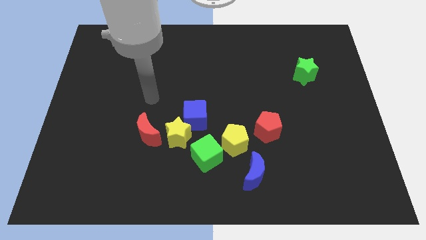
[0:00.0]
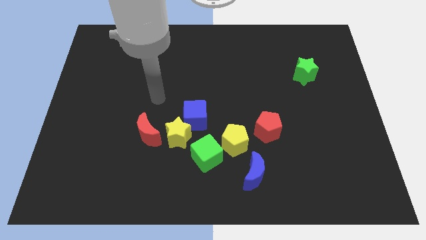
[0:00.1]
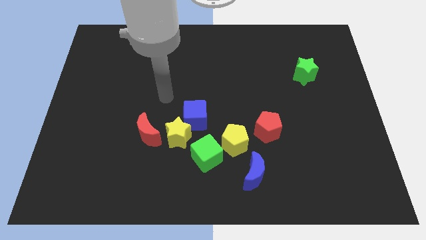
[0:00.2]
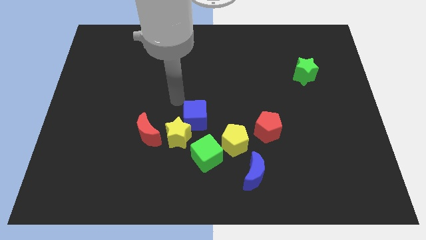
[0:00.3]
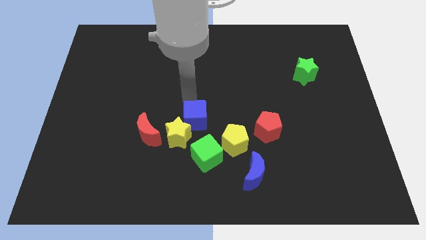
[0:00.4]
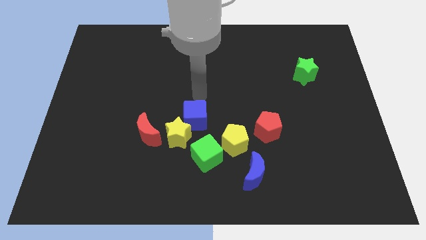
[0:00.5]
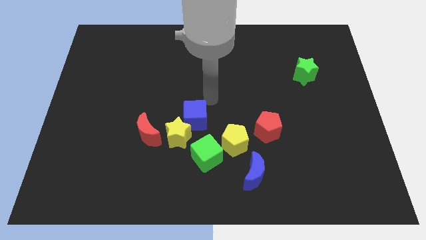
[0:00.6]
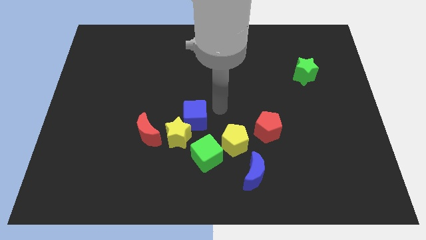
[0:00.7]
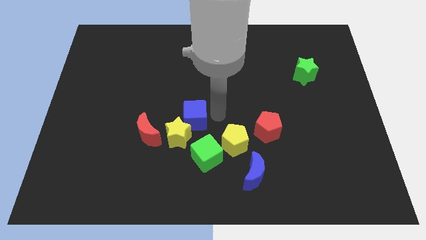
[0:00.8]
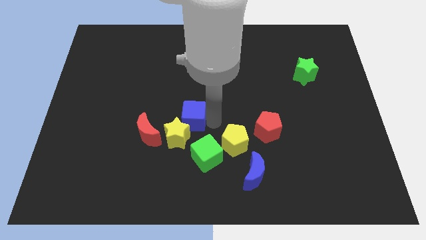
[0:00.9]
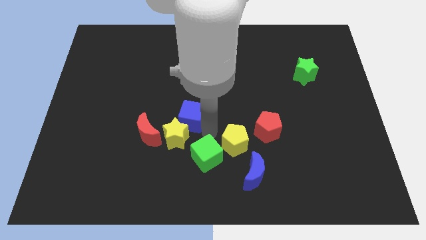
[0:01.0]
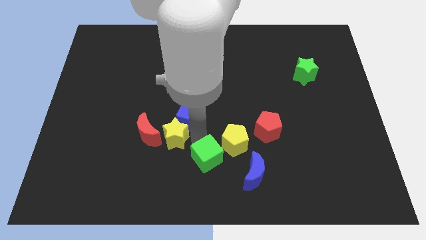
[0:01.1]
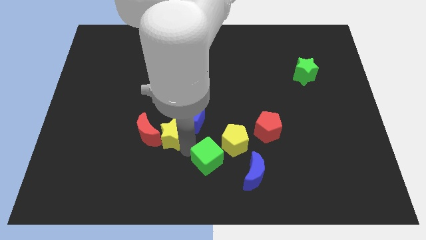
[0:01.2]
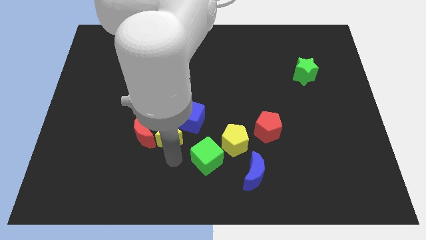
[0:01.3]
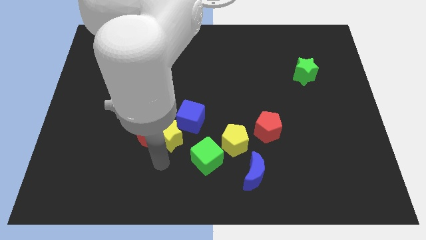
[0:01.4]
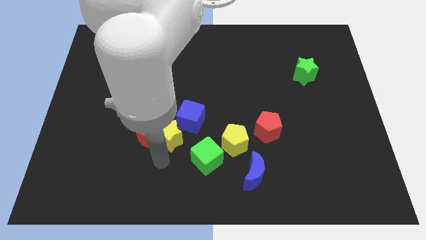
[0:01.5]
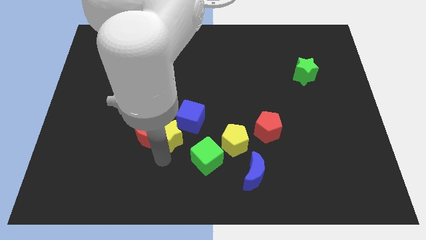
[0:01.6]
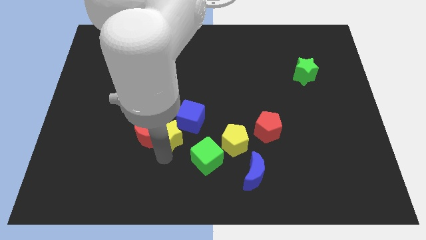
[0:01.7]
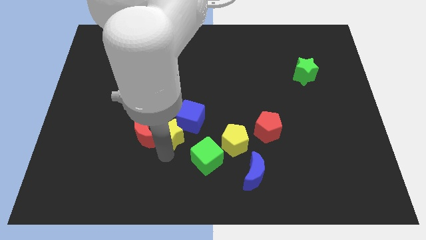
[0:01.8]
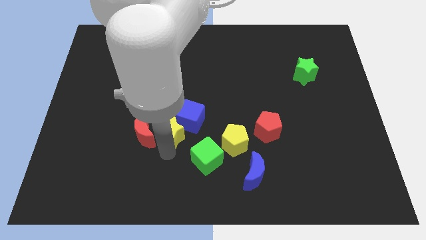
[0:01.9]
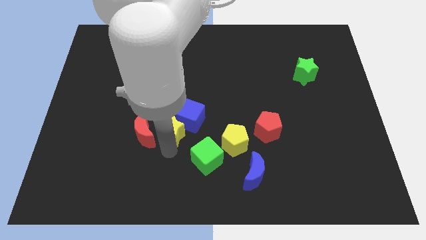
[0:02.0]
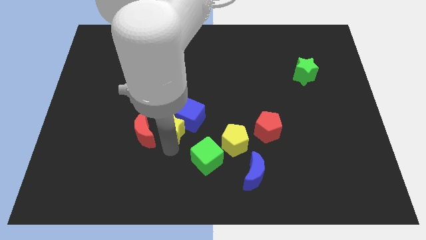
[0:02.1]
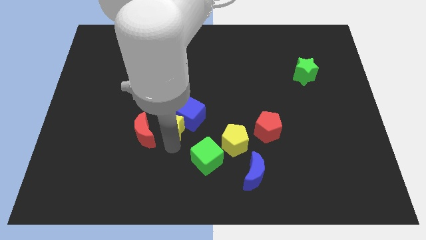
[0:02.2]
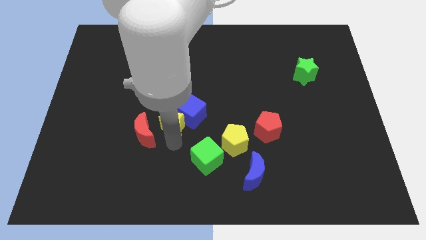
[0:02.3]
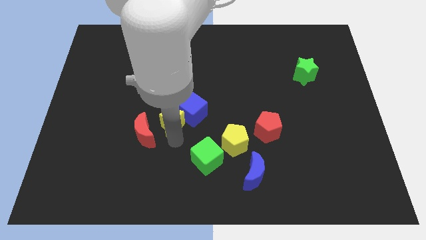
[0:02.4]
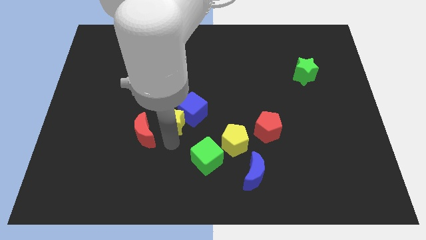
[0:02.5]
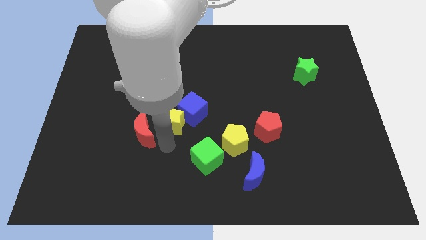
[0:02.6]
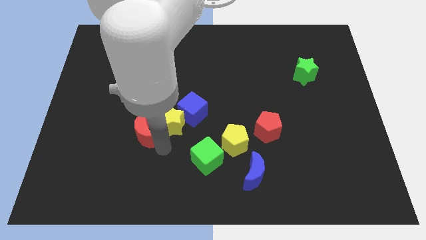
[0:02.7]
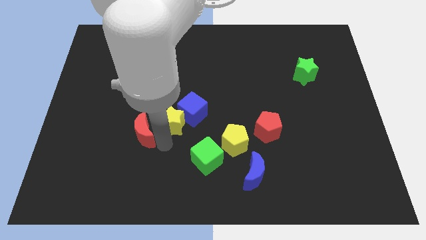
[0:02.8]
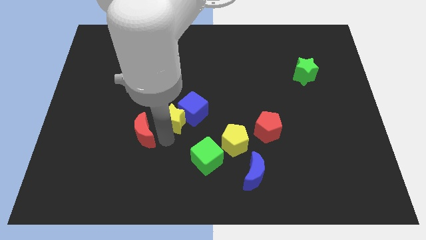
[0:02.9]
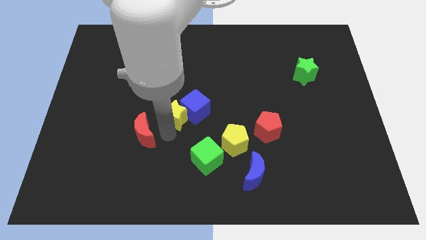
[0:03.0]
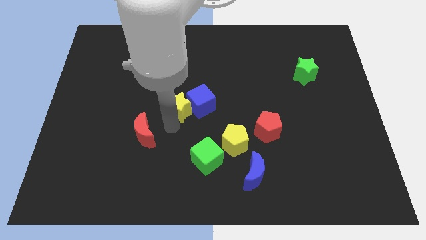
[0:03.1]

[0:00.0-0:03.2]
slightly slide the yellow star up

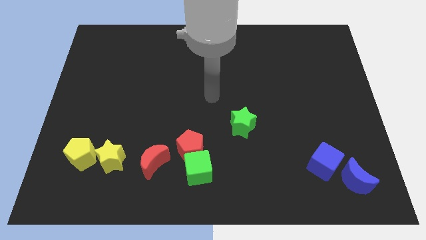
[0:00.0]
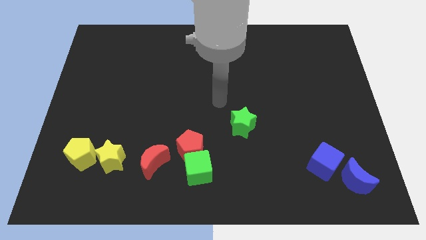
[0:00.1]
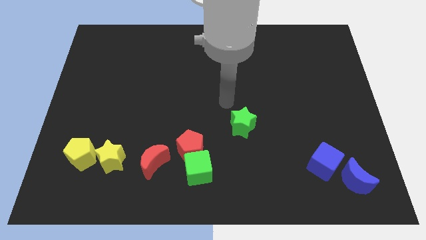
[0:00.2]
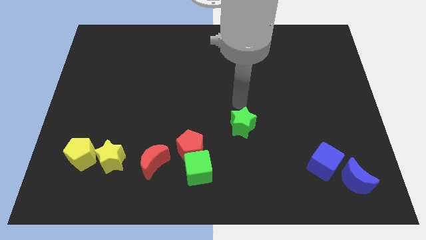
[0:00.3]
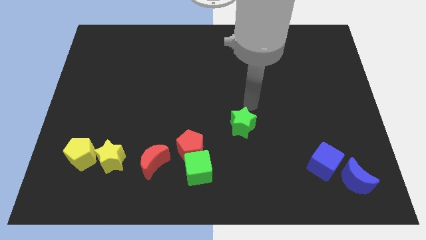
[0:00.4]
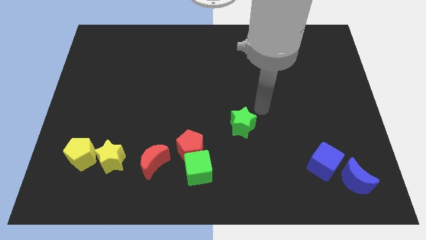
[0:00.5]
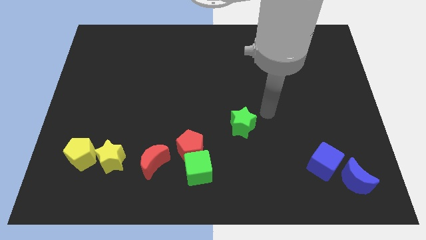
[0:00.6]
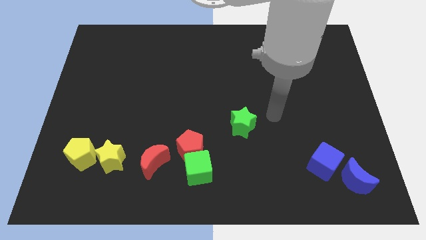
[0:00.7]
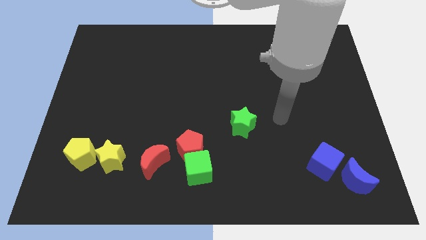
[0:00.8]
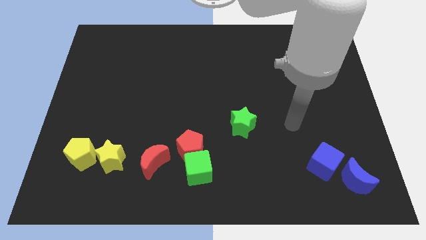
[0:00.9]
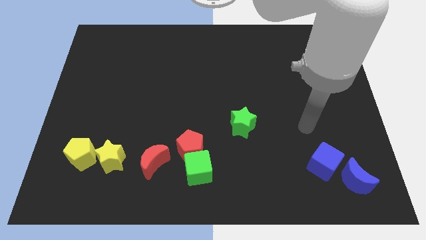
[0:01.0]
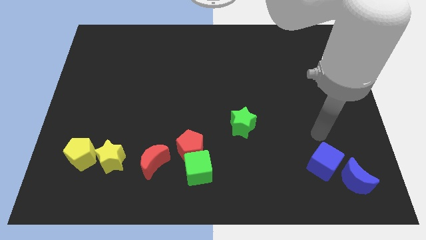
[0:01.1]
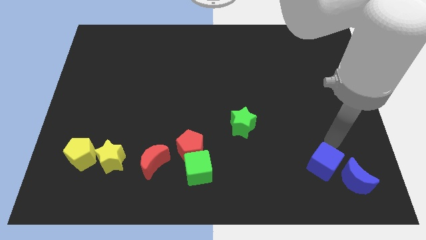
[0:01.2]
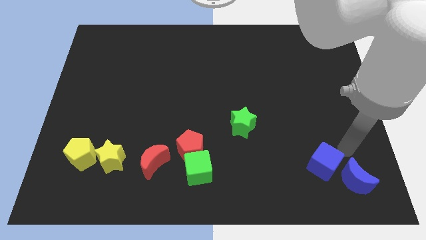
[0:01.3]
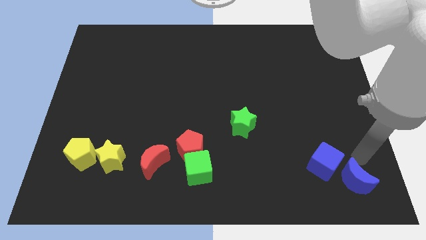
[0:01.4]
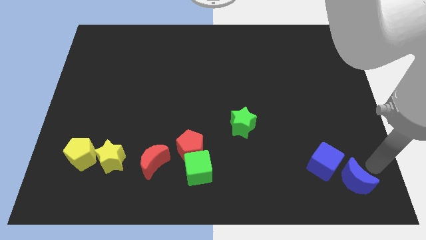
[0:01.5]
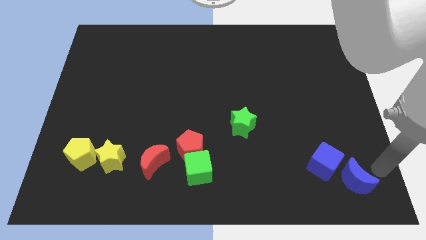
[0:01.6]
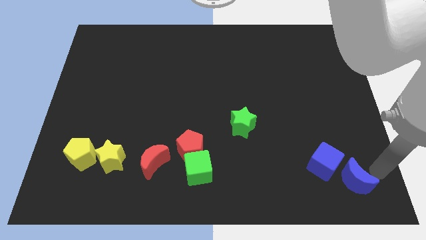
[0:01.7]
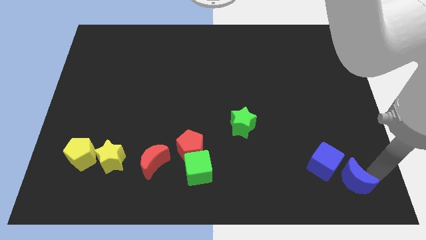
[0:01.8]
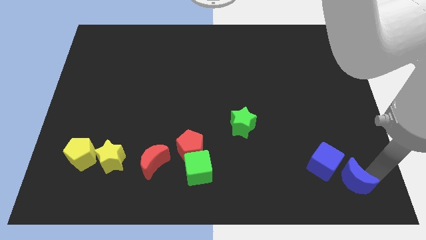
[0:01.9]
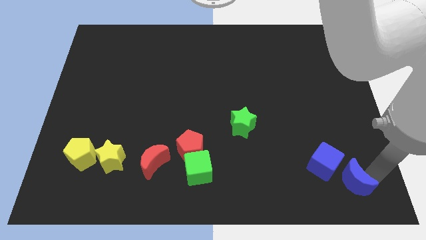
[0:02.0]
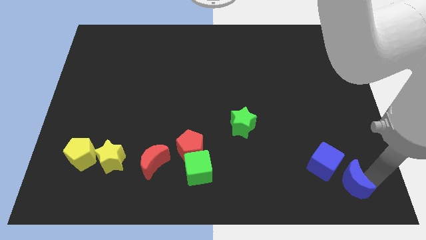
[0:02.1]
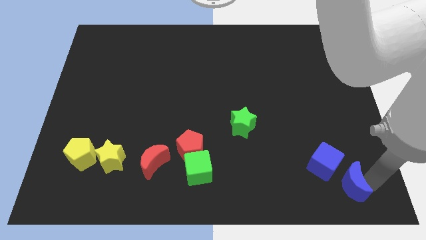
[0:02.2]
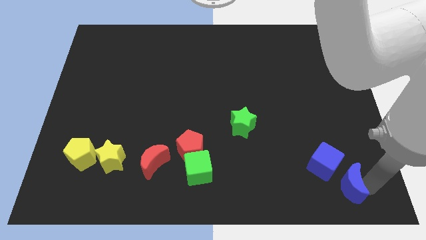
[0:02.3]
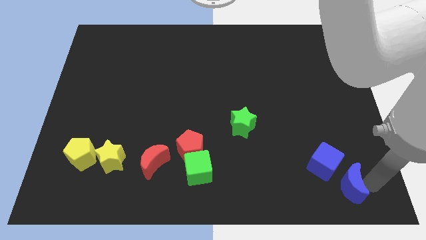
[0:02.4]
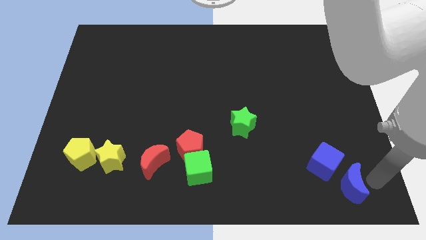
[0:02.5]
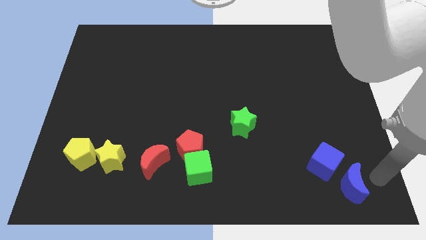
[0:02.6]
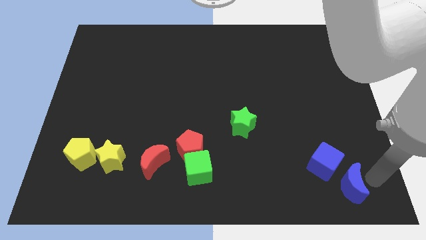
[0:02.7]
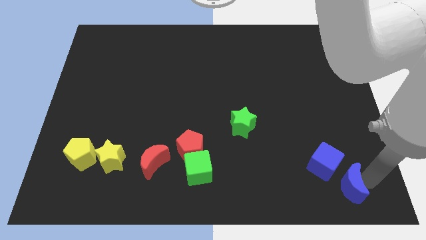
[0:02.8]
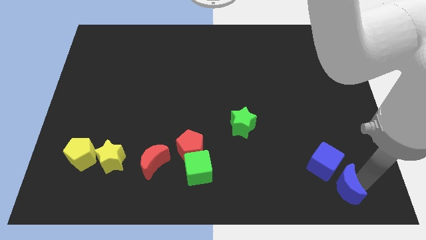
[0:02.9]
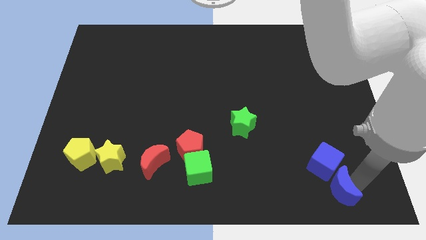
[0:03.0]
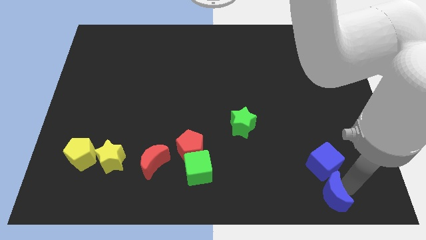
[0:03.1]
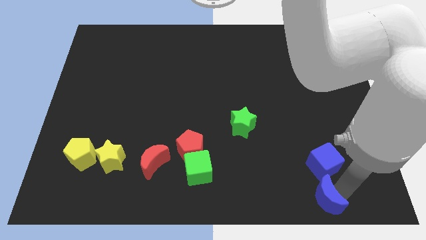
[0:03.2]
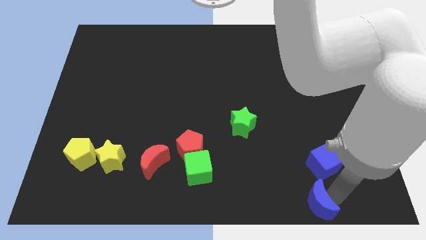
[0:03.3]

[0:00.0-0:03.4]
slightly push the blue moon to the left

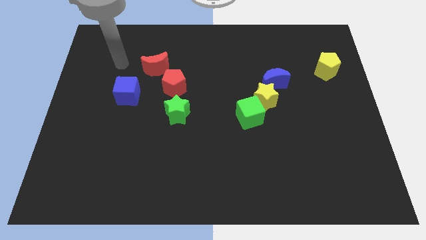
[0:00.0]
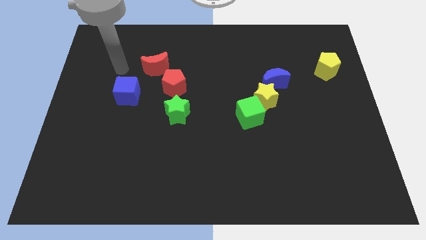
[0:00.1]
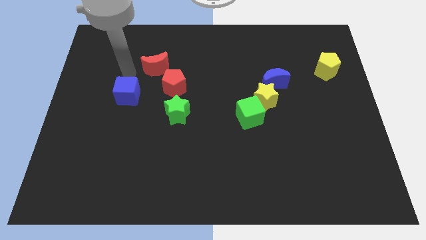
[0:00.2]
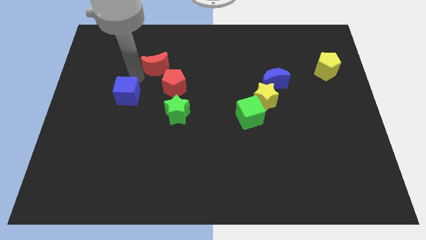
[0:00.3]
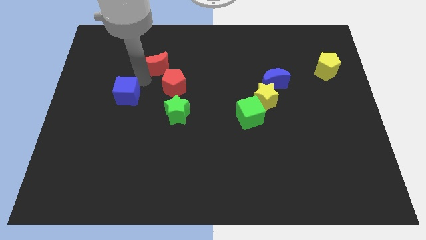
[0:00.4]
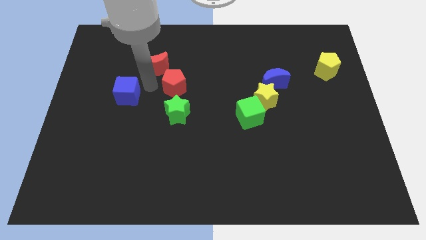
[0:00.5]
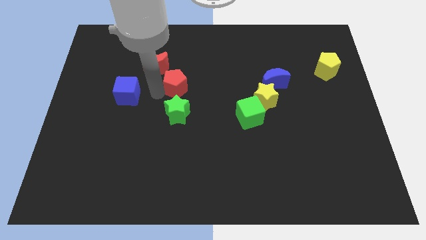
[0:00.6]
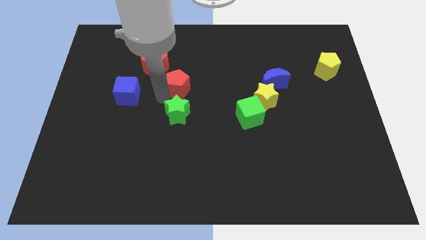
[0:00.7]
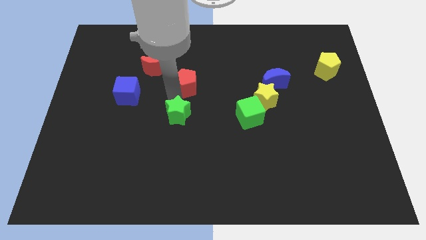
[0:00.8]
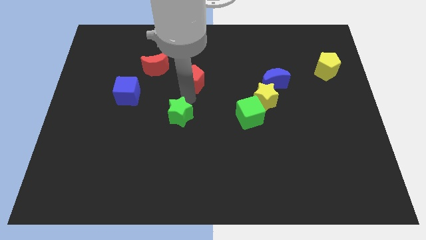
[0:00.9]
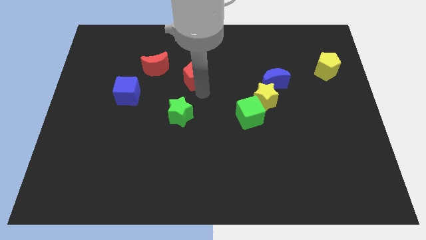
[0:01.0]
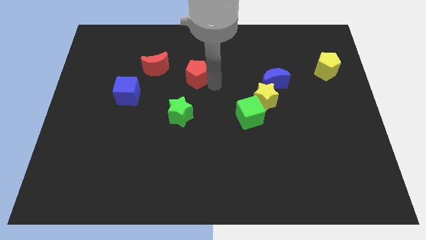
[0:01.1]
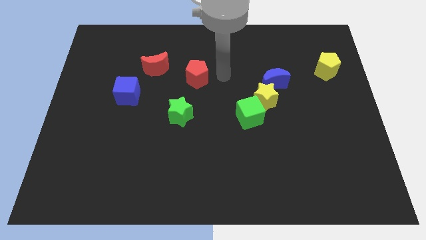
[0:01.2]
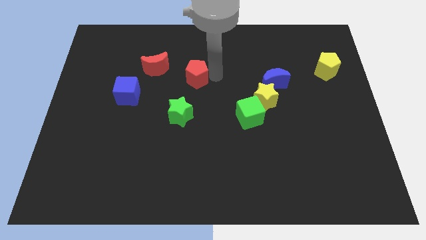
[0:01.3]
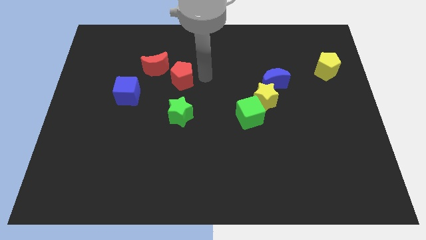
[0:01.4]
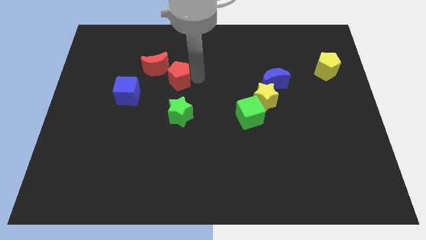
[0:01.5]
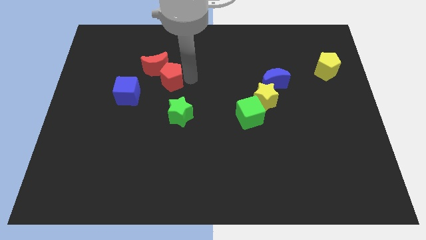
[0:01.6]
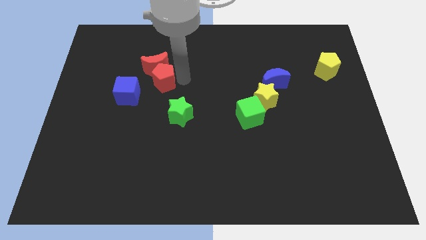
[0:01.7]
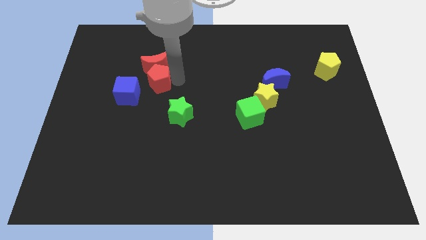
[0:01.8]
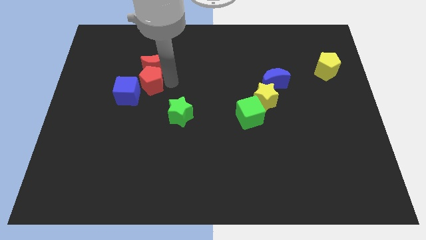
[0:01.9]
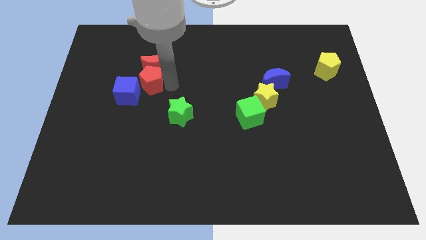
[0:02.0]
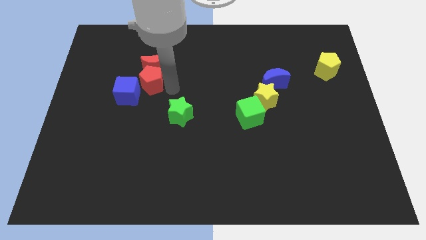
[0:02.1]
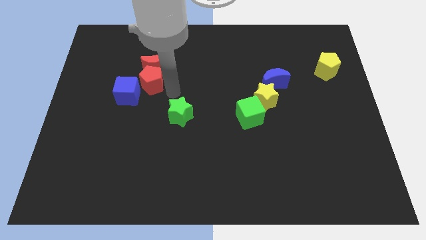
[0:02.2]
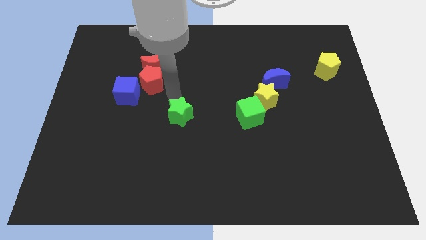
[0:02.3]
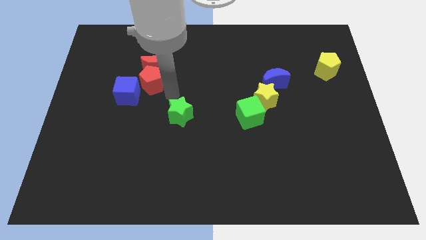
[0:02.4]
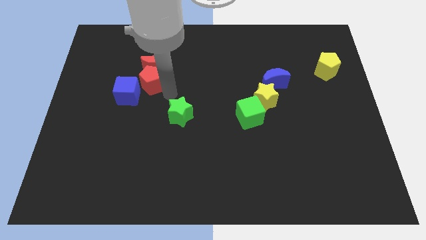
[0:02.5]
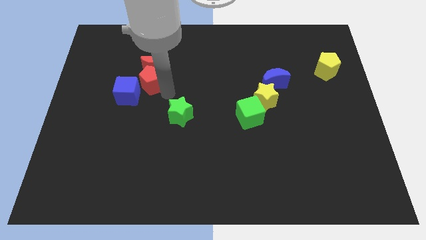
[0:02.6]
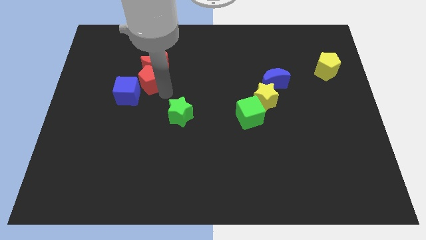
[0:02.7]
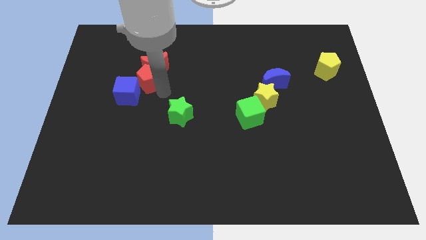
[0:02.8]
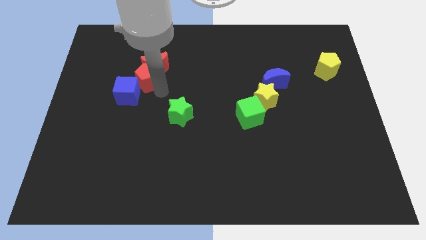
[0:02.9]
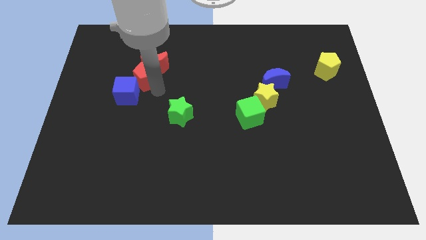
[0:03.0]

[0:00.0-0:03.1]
slightly move the red pentagon to the left
